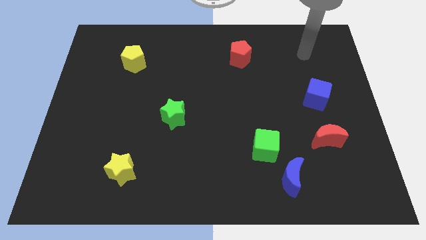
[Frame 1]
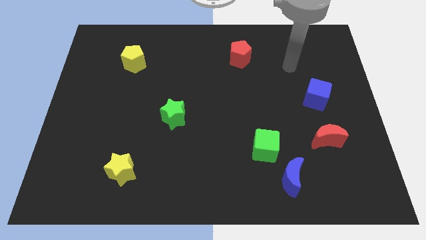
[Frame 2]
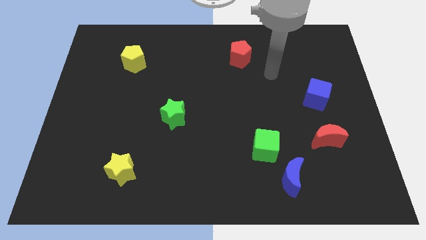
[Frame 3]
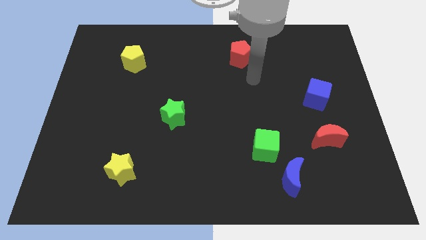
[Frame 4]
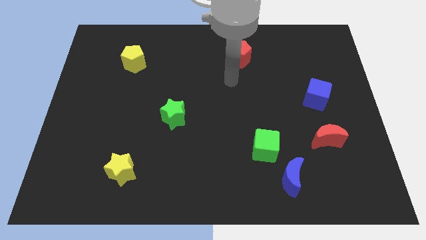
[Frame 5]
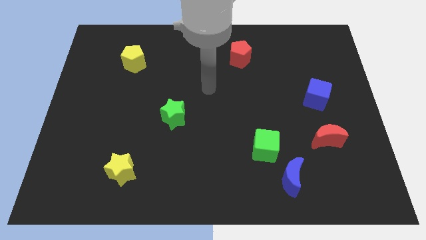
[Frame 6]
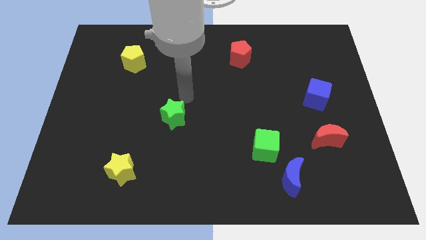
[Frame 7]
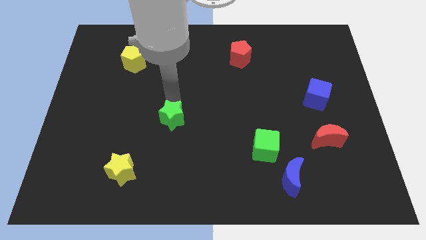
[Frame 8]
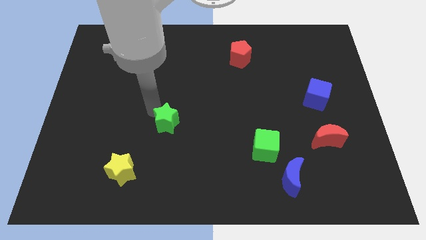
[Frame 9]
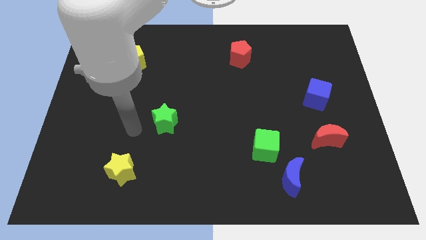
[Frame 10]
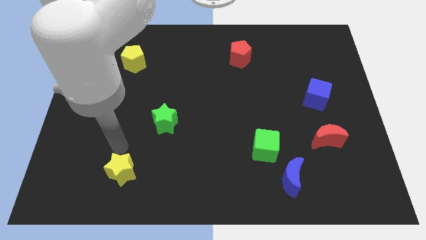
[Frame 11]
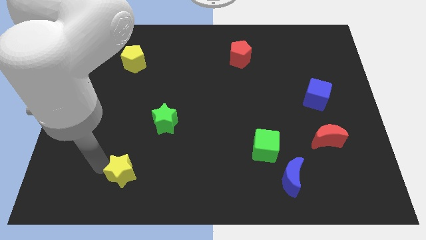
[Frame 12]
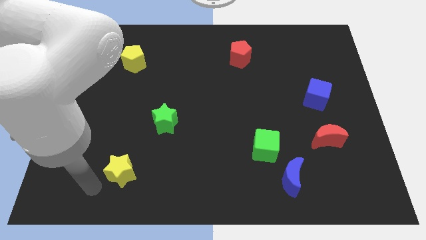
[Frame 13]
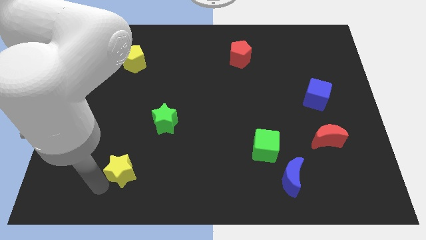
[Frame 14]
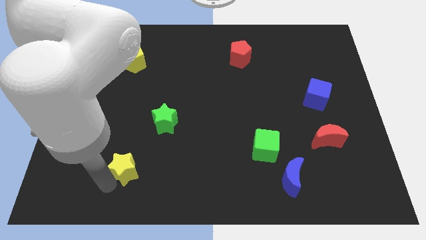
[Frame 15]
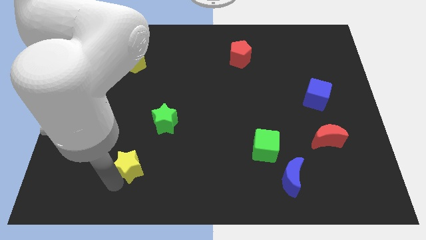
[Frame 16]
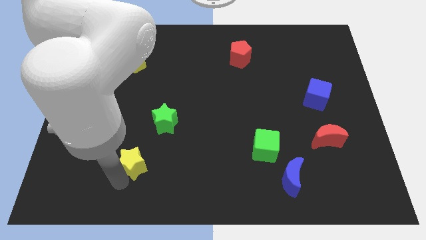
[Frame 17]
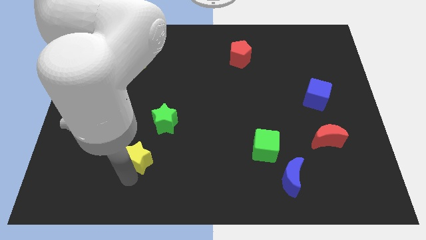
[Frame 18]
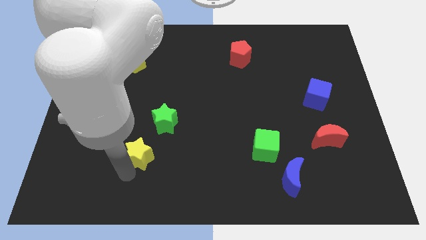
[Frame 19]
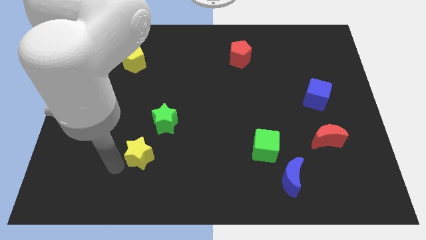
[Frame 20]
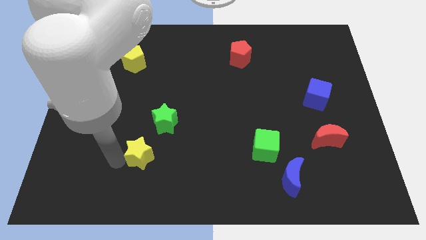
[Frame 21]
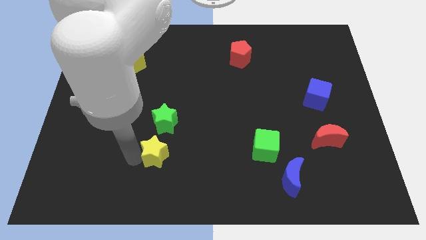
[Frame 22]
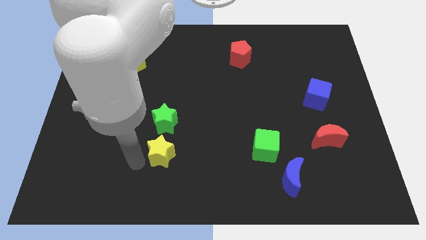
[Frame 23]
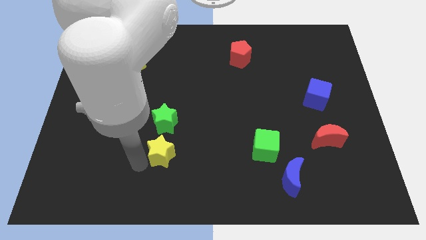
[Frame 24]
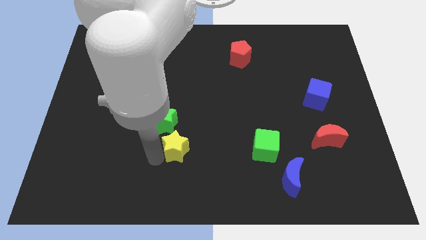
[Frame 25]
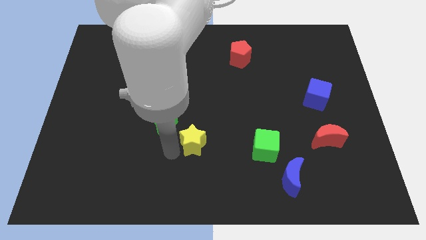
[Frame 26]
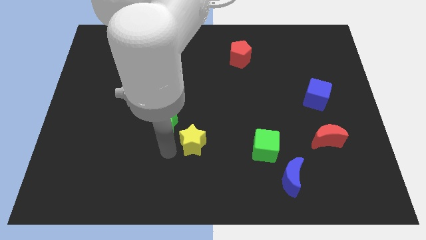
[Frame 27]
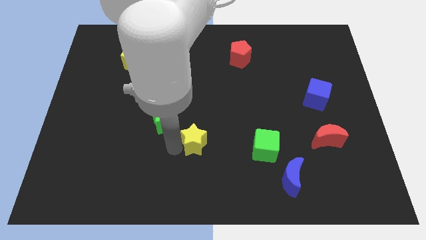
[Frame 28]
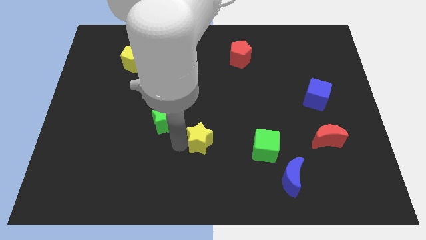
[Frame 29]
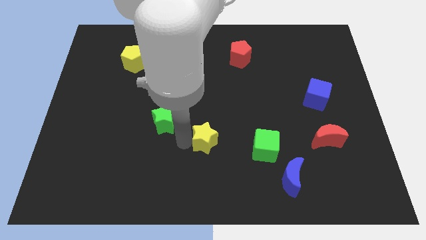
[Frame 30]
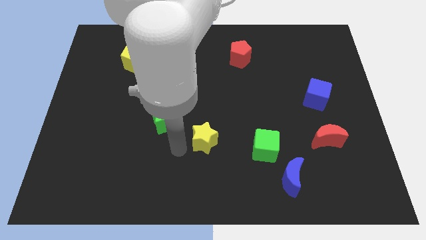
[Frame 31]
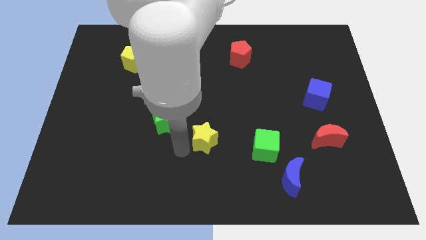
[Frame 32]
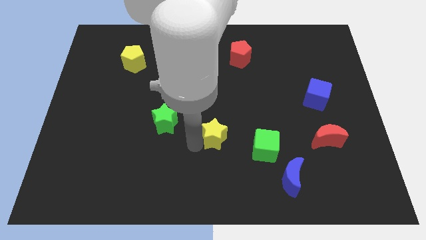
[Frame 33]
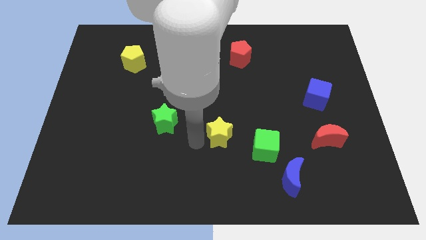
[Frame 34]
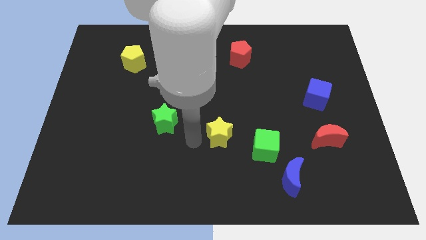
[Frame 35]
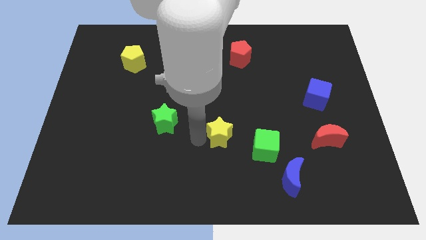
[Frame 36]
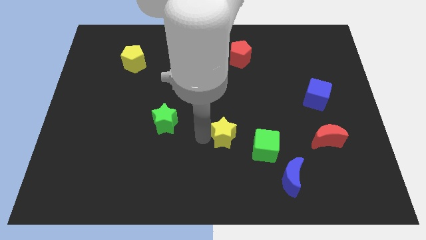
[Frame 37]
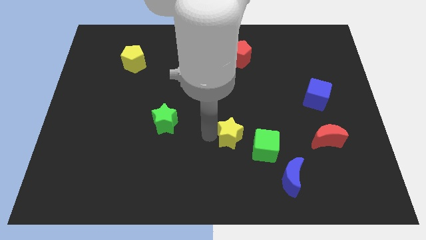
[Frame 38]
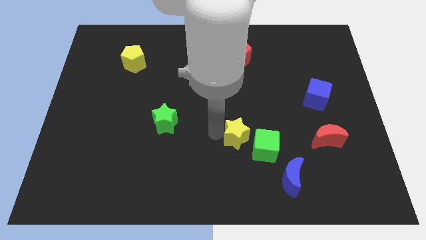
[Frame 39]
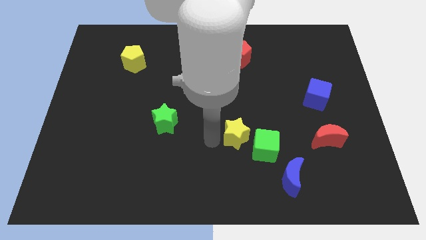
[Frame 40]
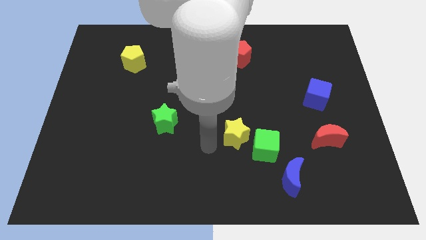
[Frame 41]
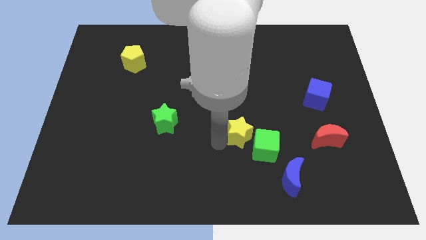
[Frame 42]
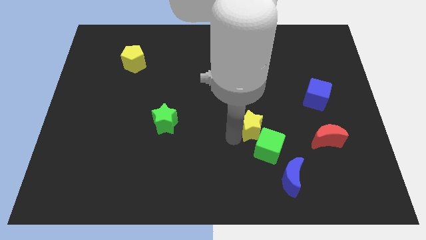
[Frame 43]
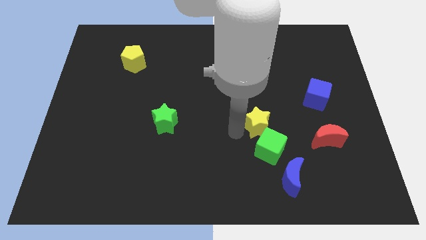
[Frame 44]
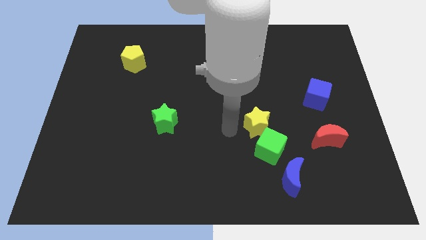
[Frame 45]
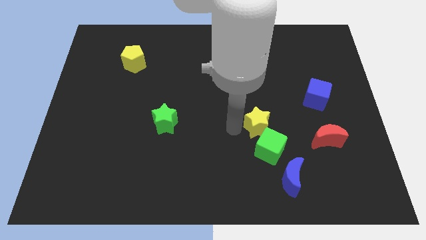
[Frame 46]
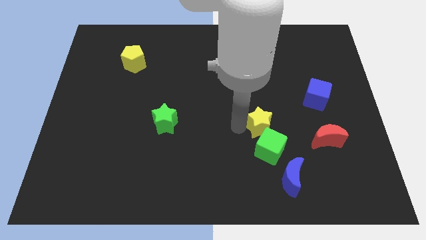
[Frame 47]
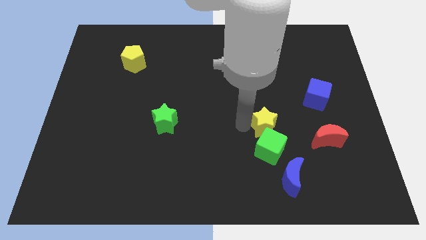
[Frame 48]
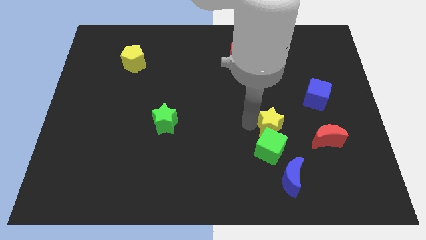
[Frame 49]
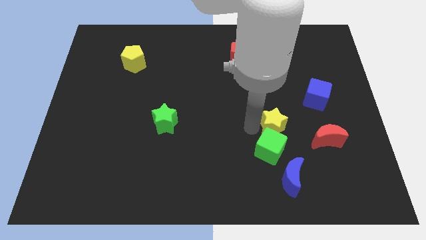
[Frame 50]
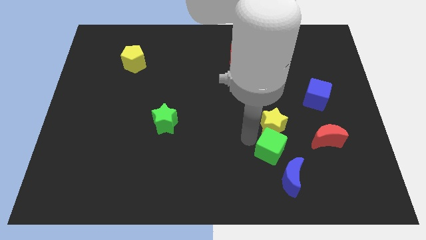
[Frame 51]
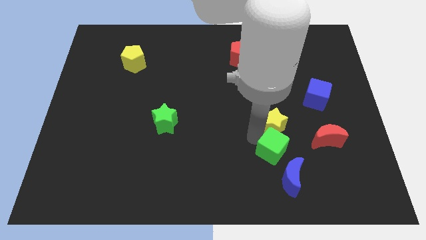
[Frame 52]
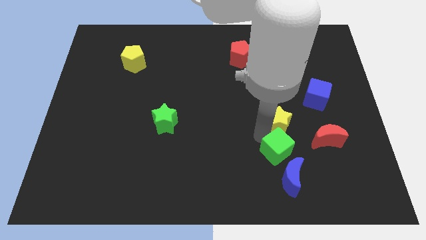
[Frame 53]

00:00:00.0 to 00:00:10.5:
move the yellow star to the bottom left of the blue cube

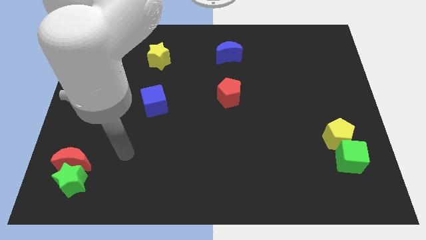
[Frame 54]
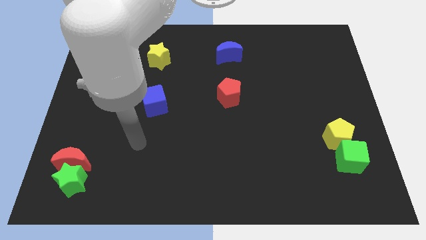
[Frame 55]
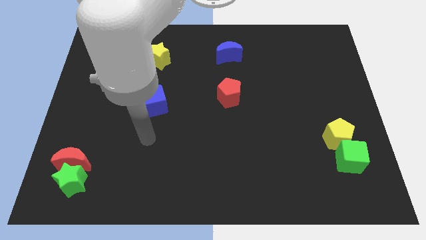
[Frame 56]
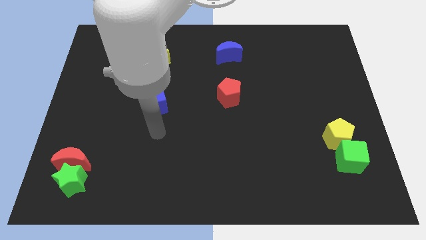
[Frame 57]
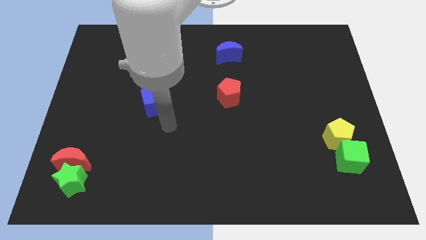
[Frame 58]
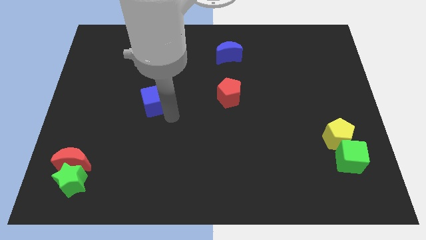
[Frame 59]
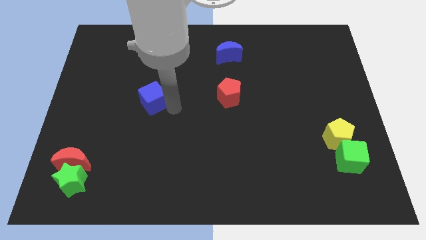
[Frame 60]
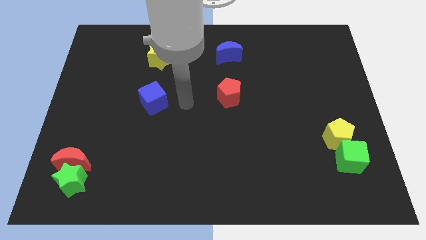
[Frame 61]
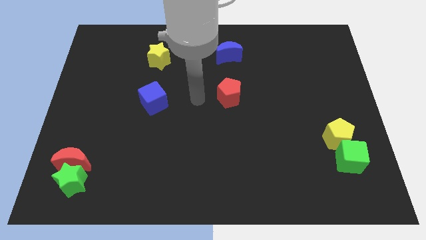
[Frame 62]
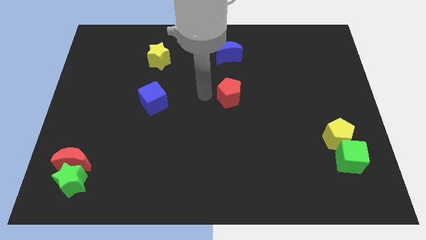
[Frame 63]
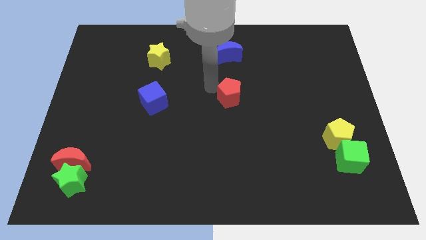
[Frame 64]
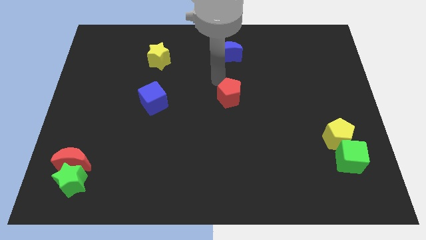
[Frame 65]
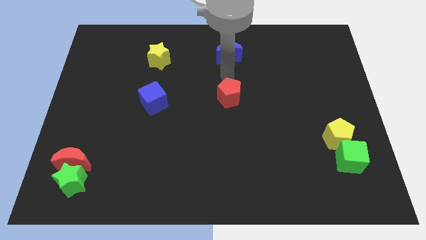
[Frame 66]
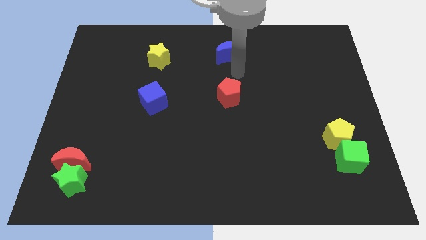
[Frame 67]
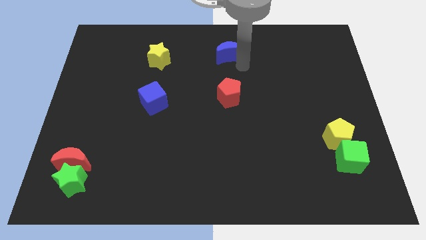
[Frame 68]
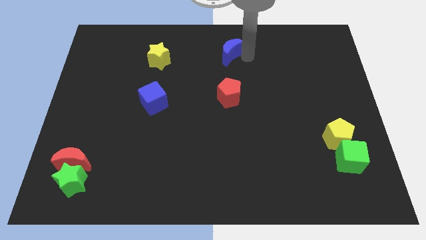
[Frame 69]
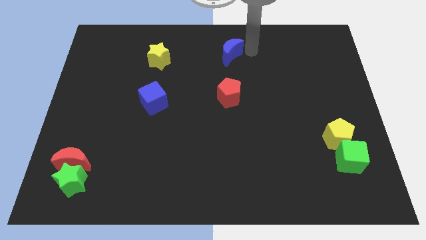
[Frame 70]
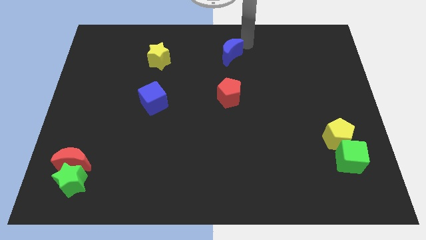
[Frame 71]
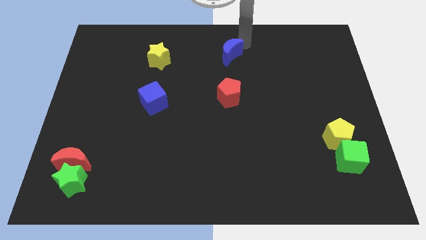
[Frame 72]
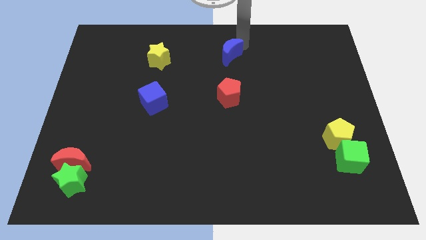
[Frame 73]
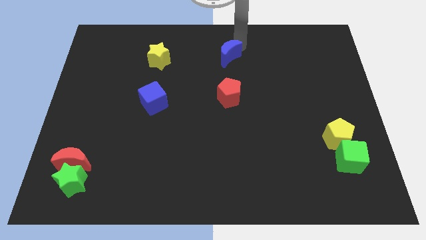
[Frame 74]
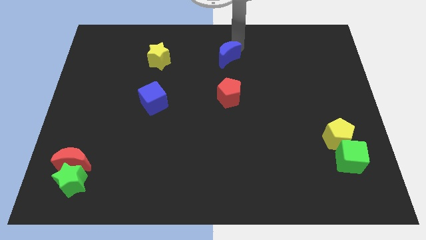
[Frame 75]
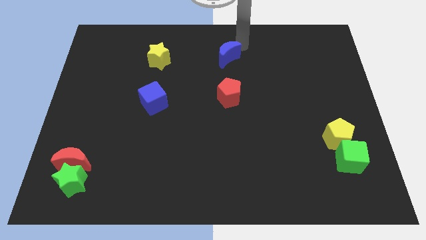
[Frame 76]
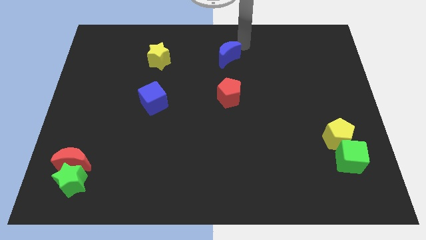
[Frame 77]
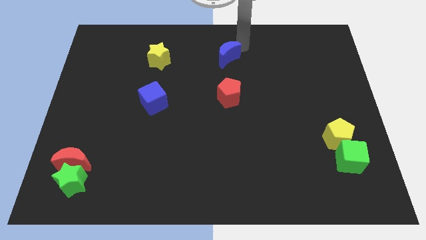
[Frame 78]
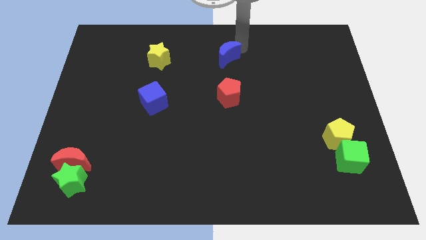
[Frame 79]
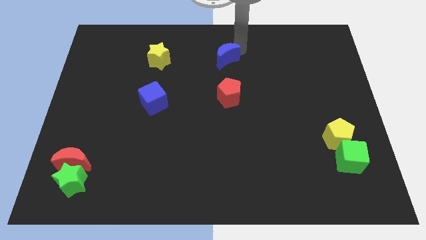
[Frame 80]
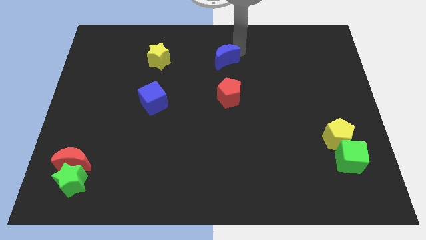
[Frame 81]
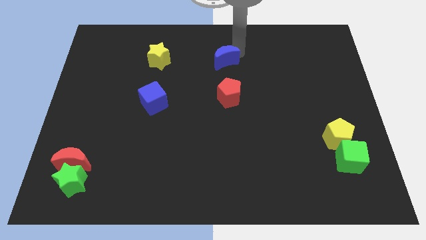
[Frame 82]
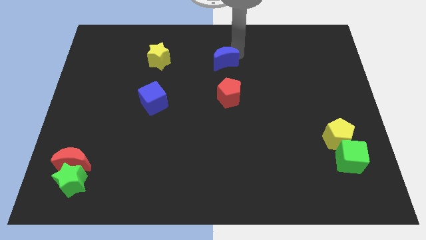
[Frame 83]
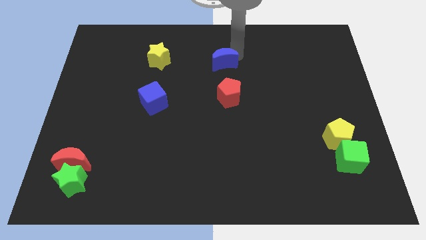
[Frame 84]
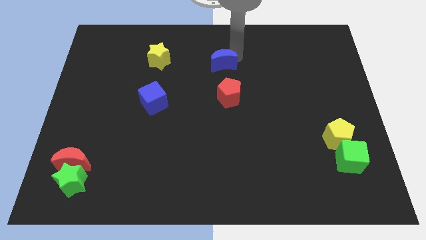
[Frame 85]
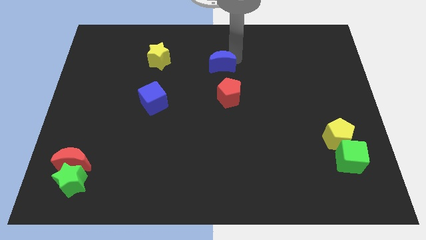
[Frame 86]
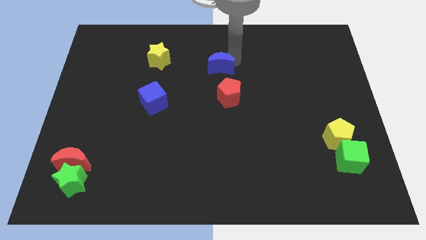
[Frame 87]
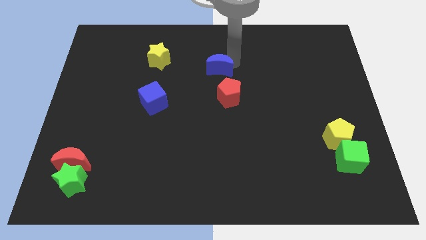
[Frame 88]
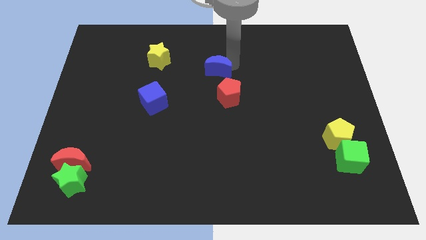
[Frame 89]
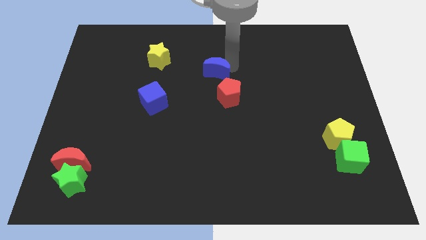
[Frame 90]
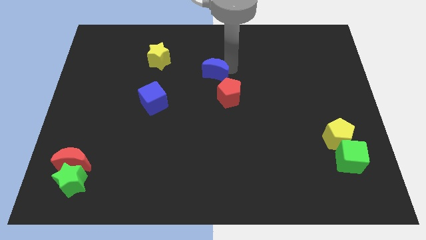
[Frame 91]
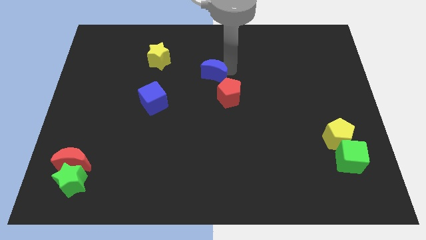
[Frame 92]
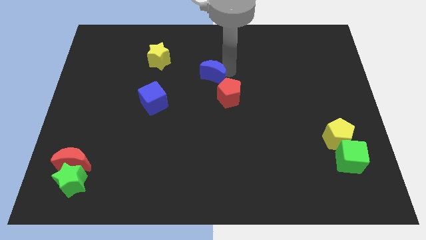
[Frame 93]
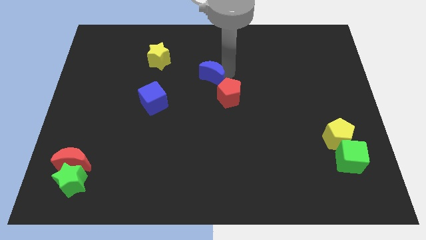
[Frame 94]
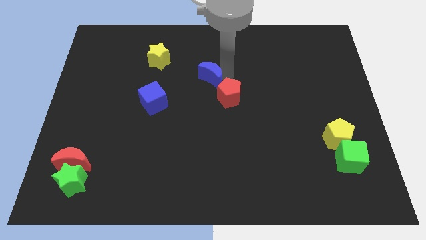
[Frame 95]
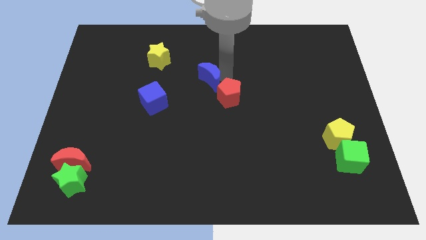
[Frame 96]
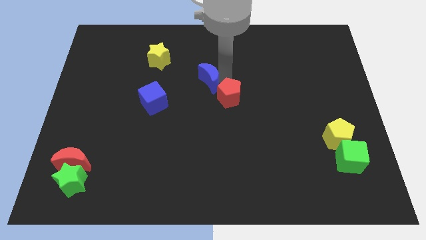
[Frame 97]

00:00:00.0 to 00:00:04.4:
move the blue moon to the left side of the red pentagon
